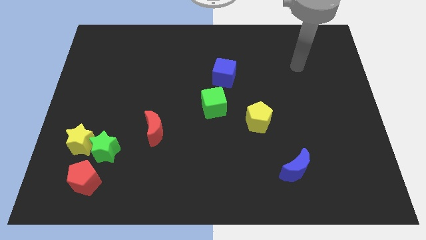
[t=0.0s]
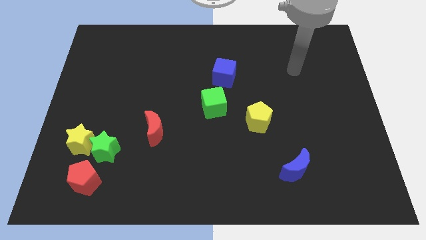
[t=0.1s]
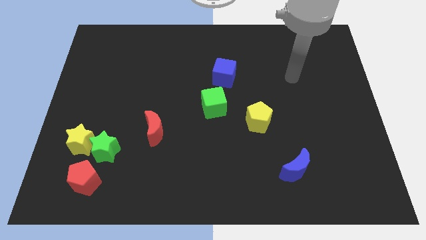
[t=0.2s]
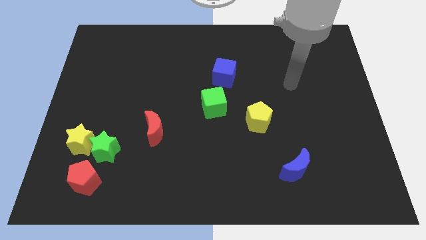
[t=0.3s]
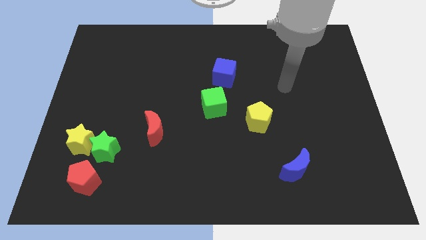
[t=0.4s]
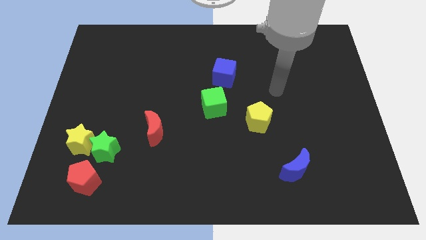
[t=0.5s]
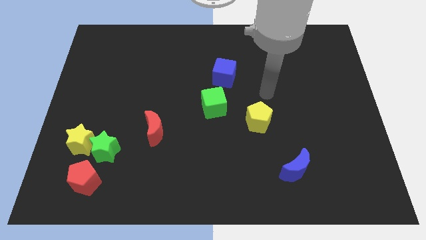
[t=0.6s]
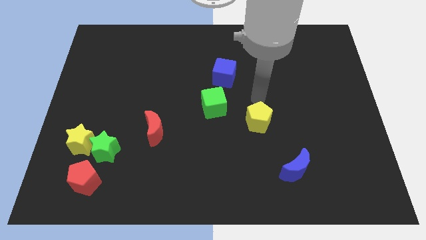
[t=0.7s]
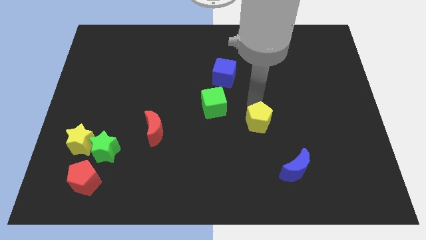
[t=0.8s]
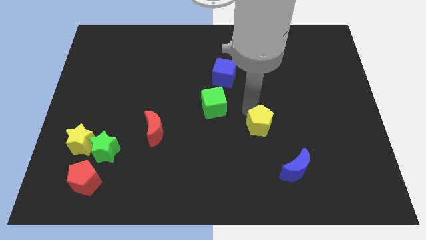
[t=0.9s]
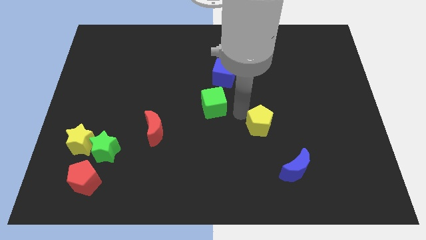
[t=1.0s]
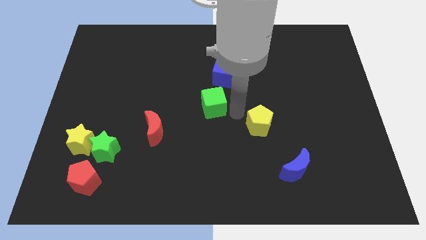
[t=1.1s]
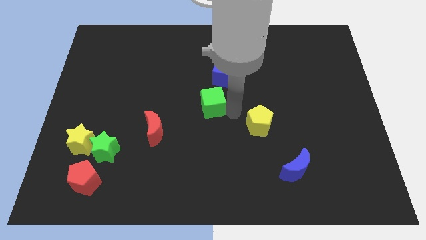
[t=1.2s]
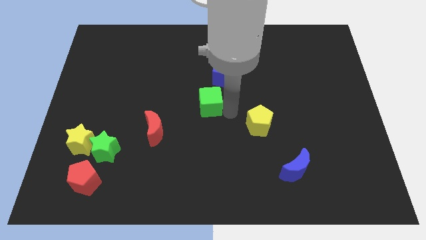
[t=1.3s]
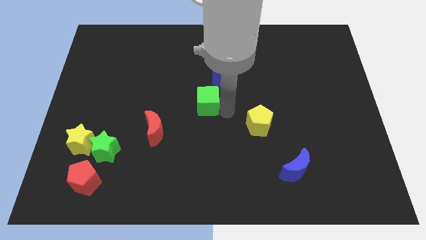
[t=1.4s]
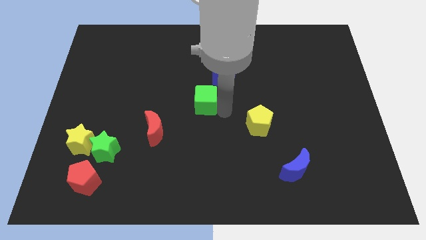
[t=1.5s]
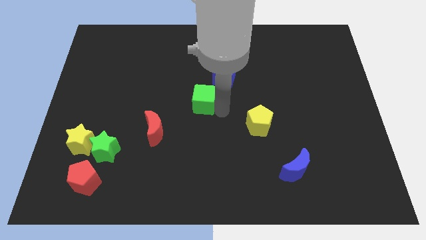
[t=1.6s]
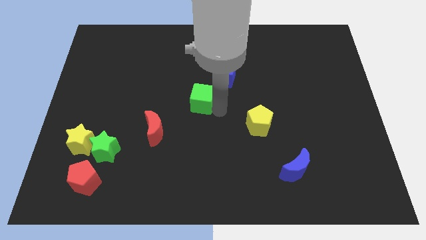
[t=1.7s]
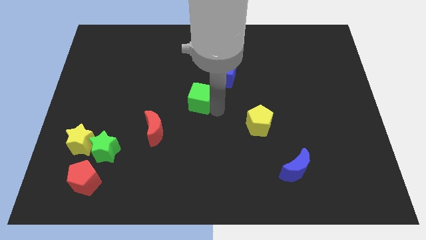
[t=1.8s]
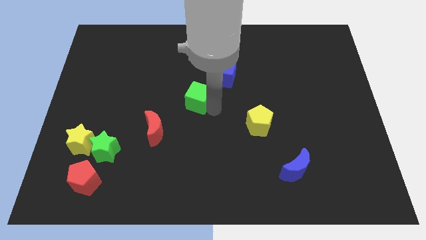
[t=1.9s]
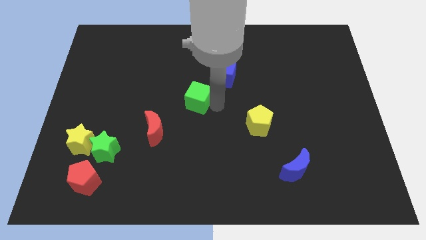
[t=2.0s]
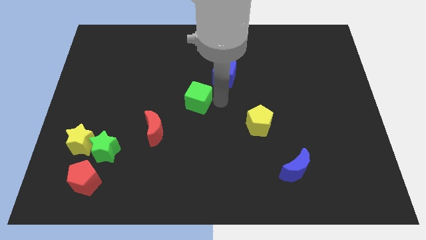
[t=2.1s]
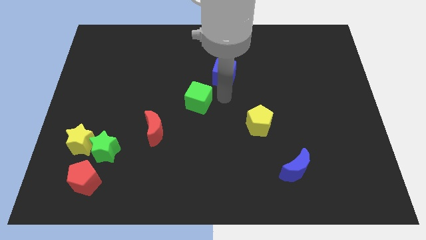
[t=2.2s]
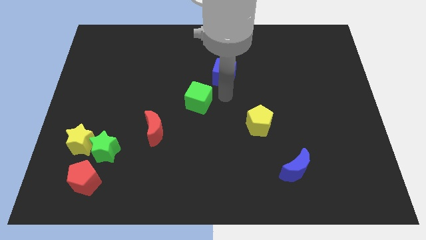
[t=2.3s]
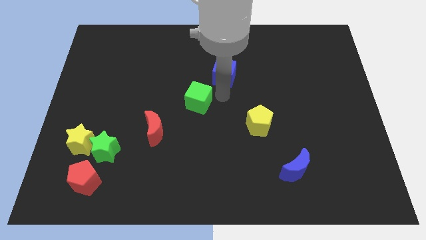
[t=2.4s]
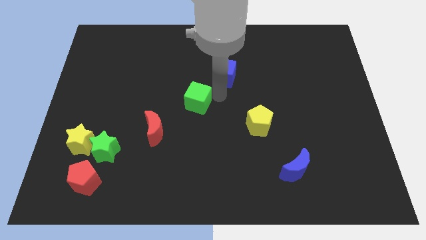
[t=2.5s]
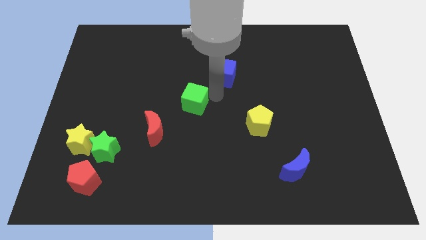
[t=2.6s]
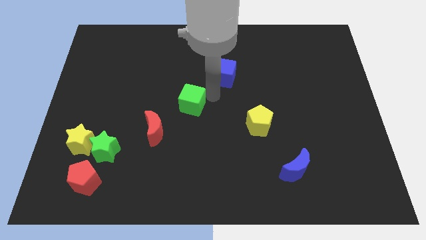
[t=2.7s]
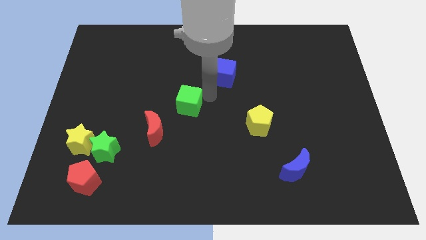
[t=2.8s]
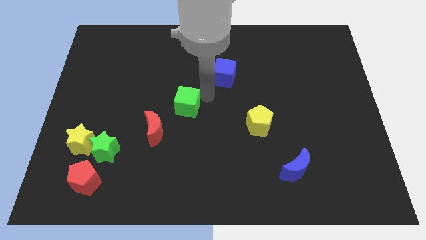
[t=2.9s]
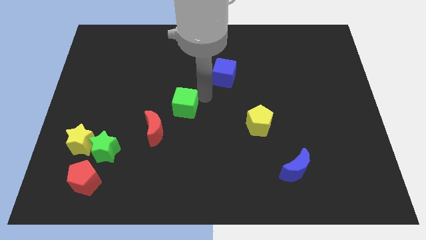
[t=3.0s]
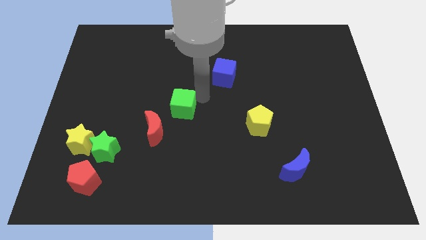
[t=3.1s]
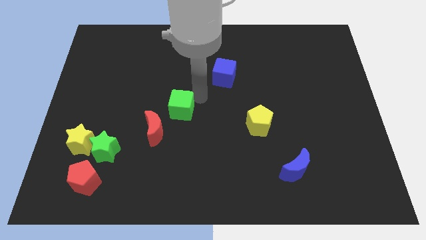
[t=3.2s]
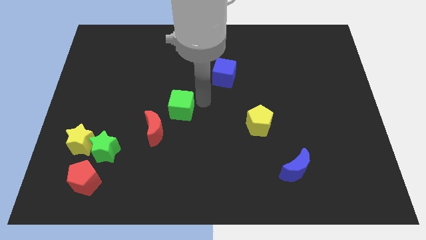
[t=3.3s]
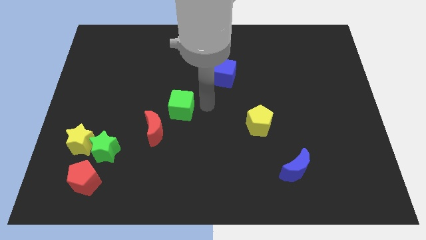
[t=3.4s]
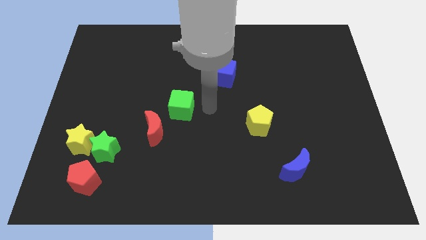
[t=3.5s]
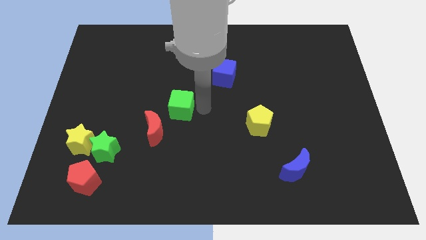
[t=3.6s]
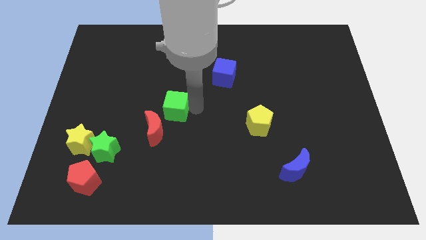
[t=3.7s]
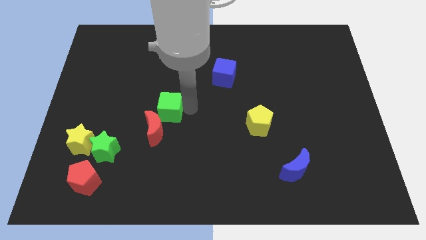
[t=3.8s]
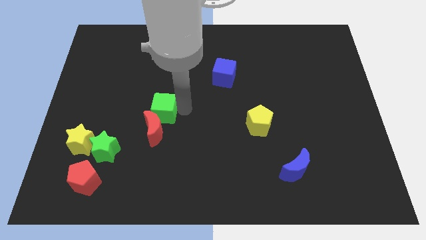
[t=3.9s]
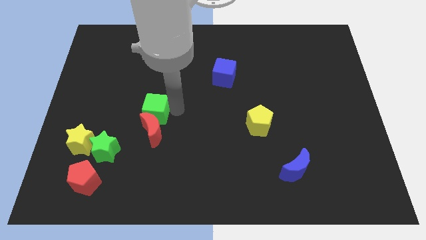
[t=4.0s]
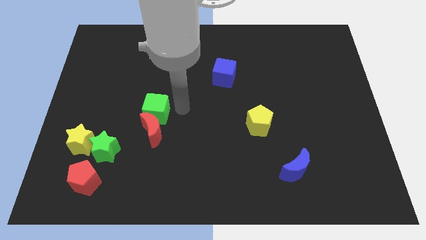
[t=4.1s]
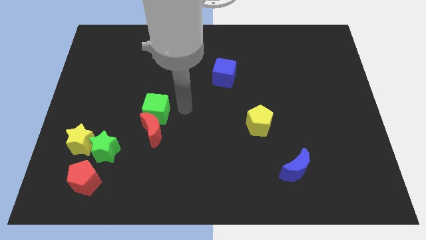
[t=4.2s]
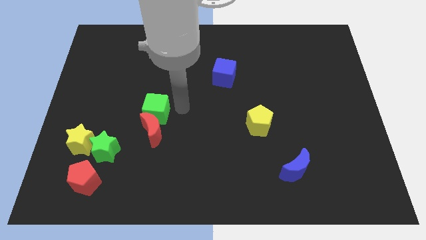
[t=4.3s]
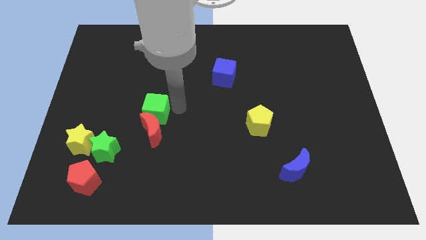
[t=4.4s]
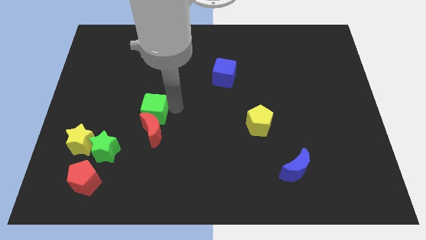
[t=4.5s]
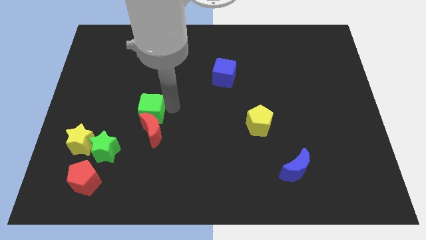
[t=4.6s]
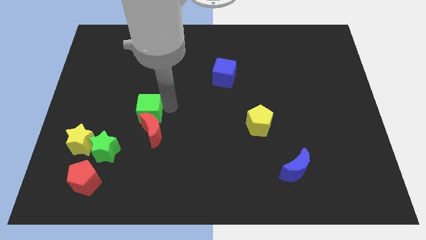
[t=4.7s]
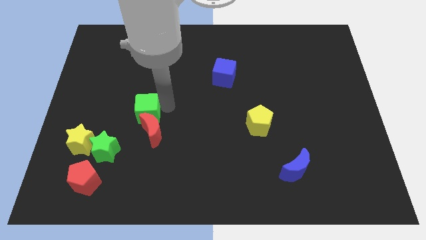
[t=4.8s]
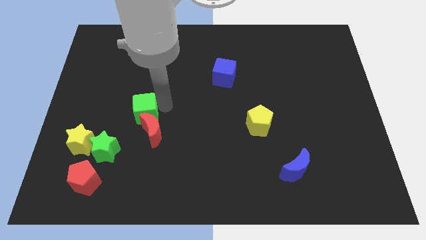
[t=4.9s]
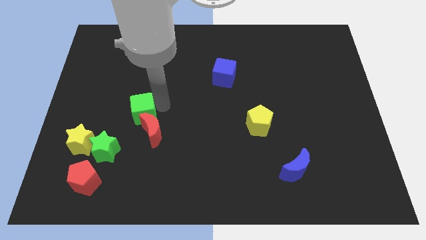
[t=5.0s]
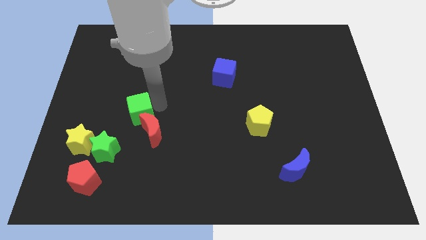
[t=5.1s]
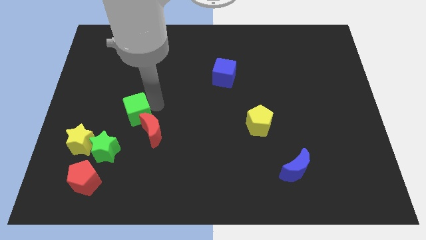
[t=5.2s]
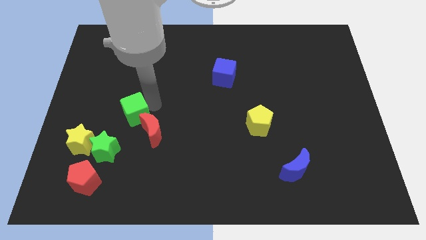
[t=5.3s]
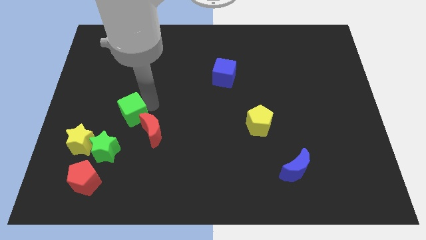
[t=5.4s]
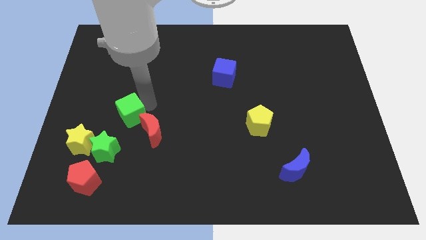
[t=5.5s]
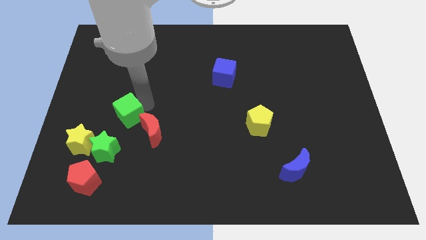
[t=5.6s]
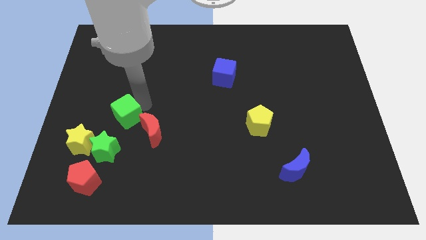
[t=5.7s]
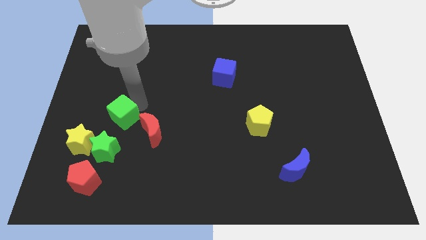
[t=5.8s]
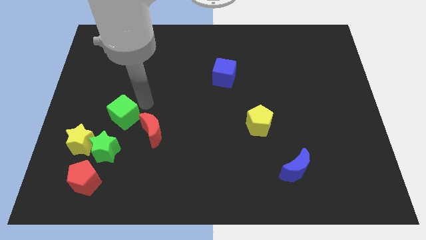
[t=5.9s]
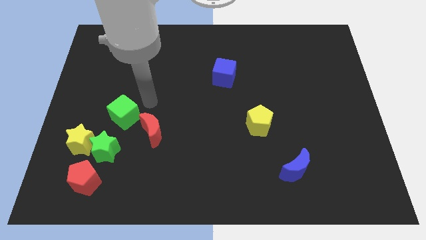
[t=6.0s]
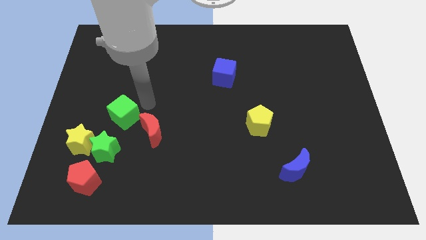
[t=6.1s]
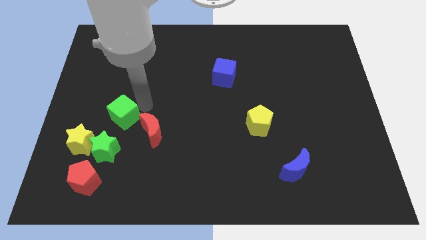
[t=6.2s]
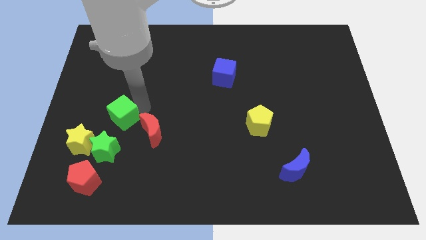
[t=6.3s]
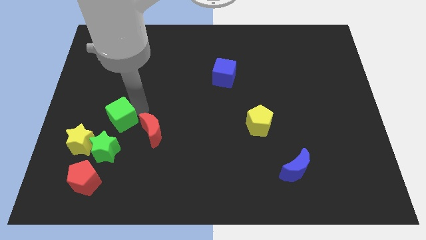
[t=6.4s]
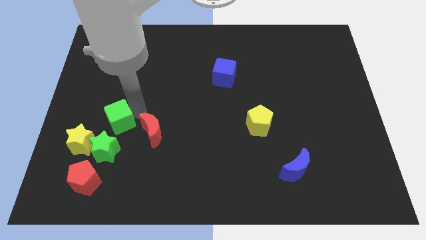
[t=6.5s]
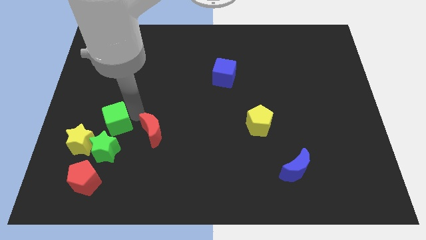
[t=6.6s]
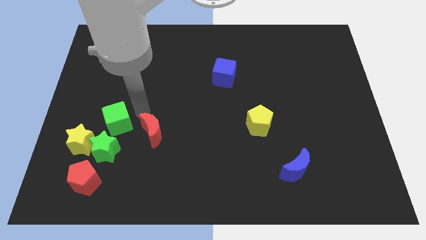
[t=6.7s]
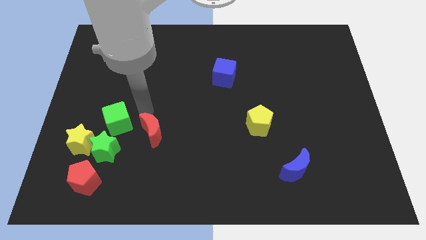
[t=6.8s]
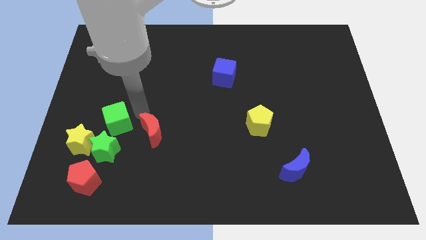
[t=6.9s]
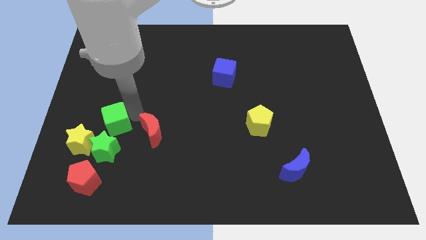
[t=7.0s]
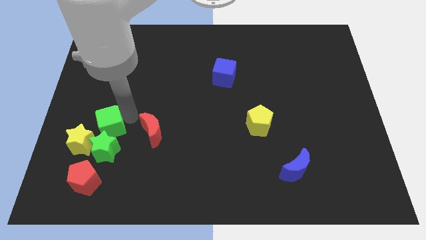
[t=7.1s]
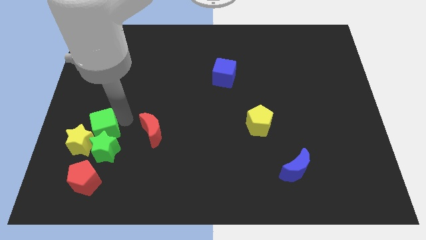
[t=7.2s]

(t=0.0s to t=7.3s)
push the green cube close to the yellow star

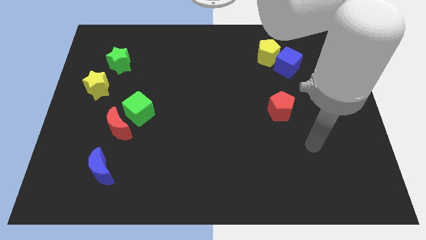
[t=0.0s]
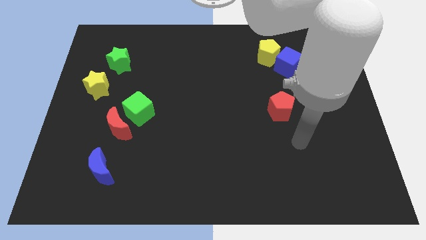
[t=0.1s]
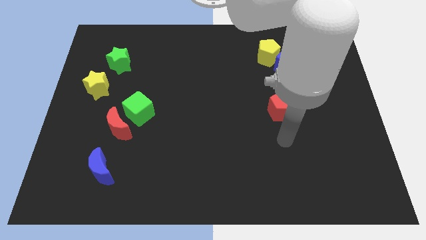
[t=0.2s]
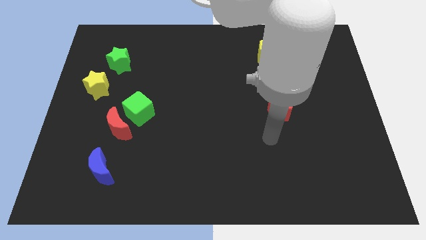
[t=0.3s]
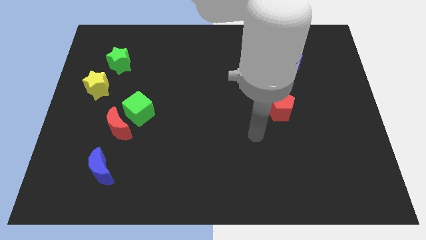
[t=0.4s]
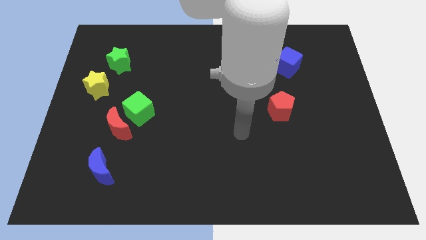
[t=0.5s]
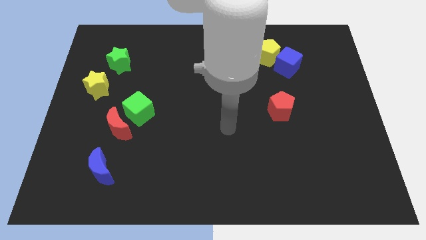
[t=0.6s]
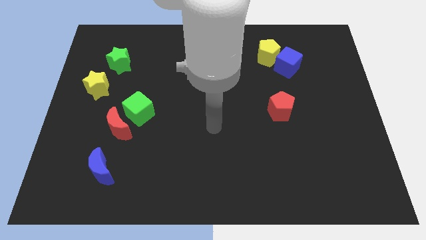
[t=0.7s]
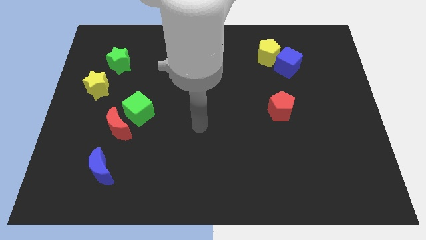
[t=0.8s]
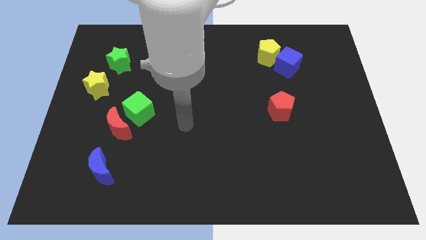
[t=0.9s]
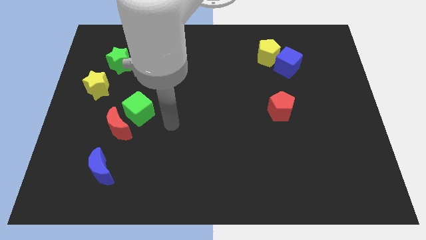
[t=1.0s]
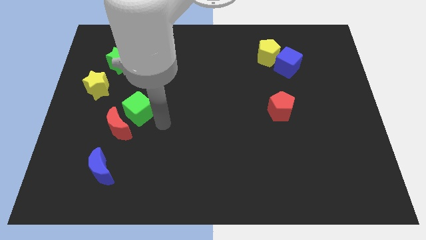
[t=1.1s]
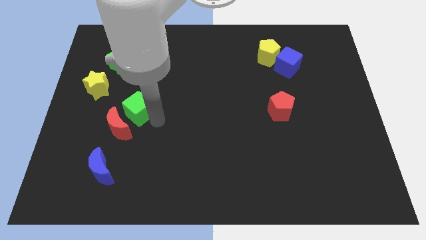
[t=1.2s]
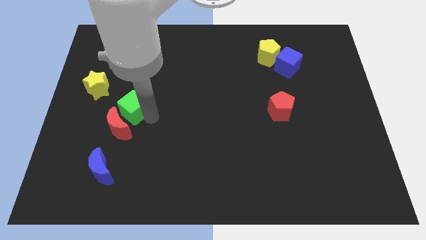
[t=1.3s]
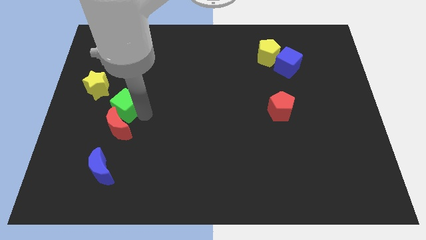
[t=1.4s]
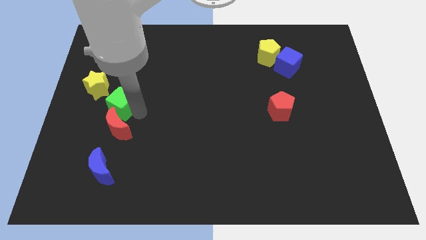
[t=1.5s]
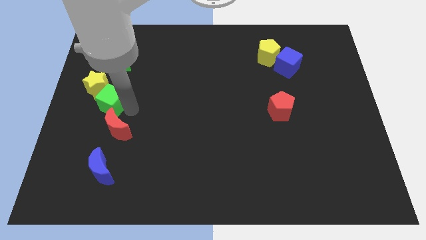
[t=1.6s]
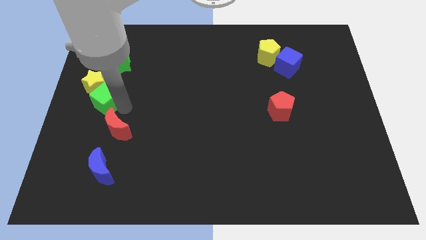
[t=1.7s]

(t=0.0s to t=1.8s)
push the green cube next to the yellow star
